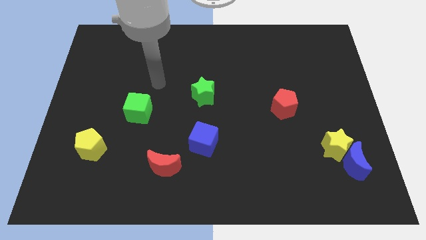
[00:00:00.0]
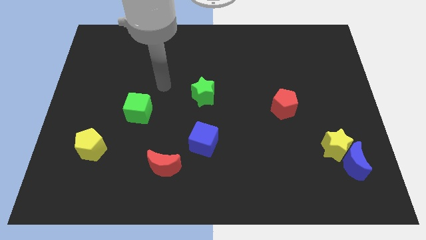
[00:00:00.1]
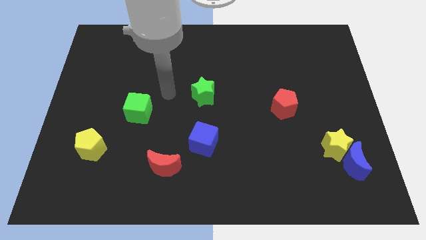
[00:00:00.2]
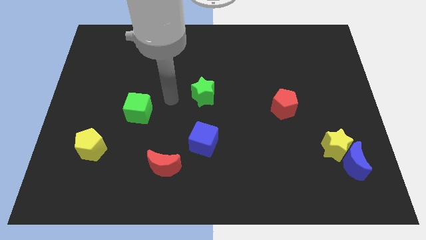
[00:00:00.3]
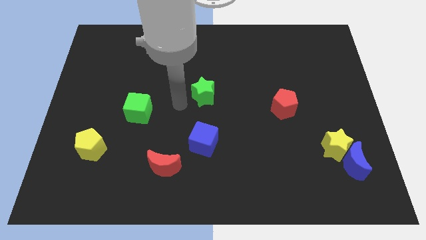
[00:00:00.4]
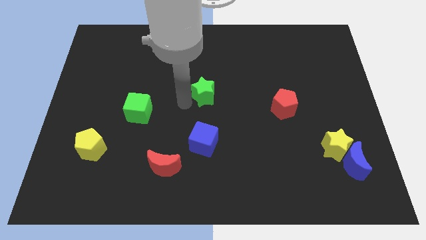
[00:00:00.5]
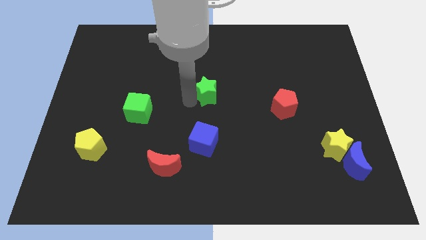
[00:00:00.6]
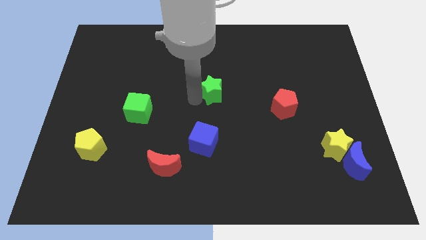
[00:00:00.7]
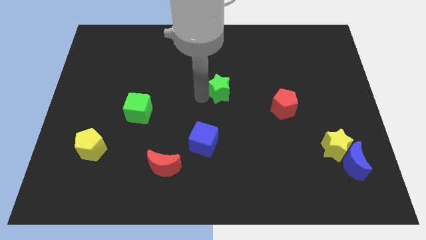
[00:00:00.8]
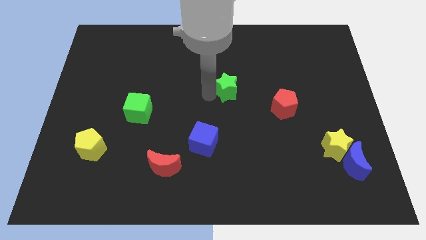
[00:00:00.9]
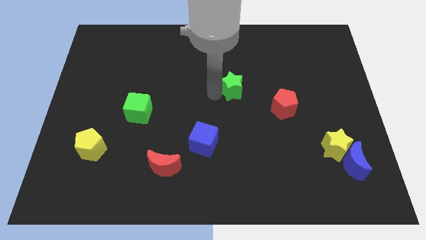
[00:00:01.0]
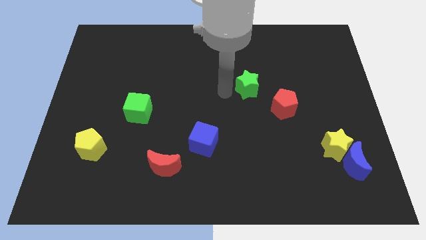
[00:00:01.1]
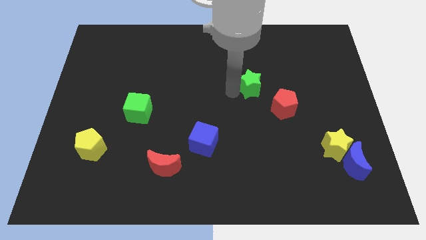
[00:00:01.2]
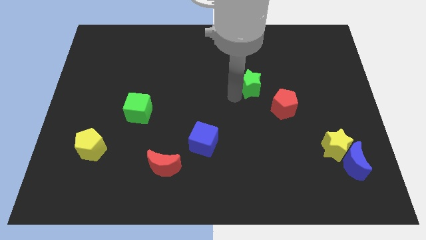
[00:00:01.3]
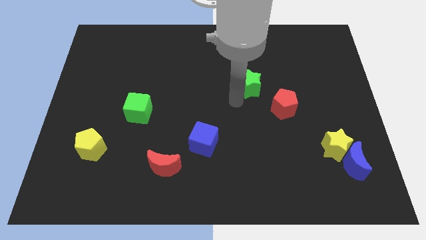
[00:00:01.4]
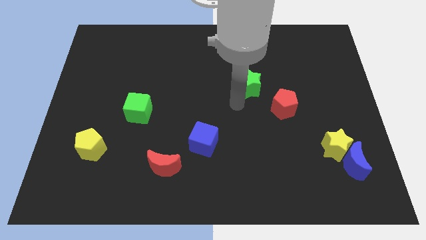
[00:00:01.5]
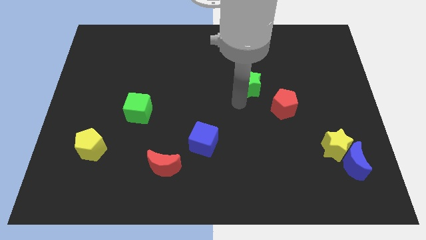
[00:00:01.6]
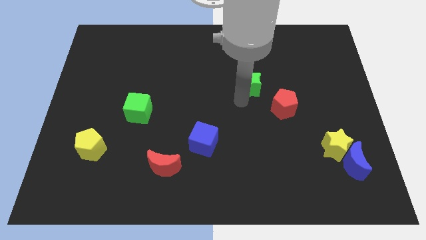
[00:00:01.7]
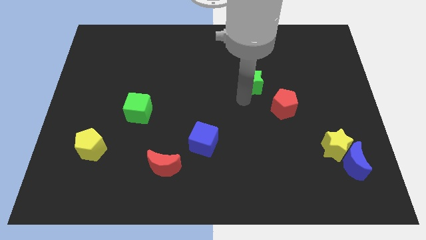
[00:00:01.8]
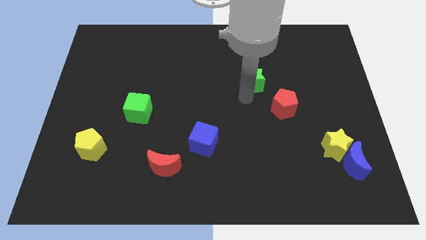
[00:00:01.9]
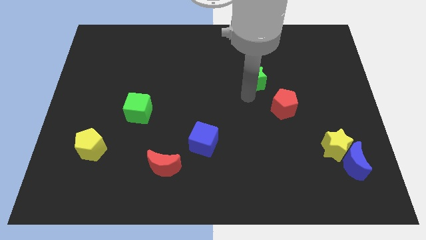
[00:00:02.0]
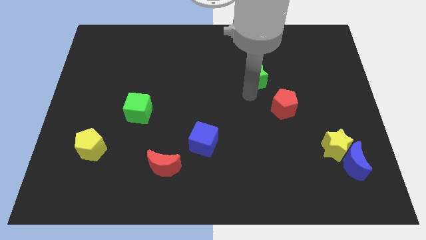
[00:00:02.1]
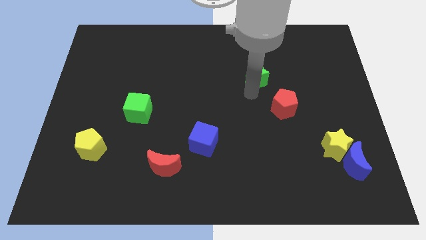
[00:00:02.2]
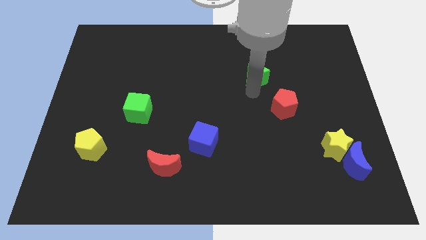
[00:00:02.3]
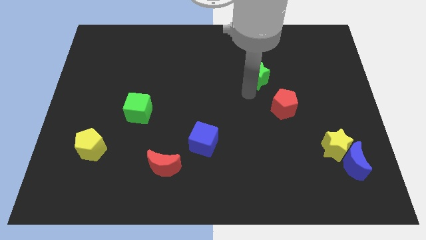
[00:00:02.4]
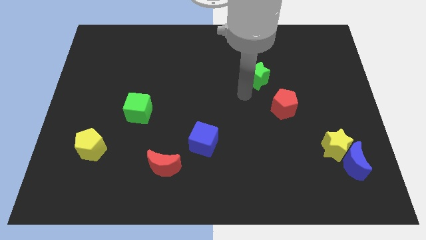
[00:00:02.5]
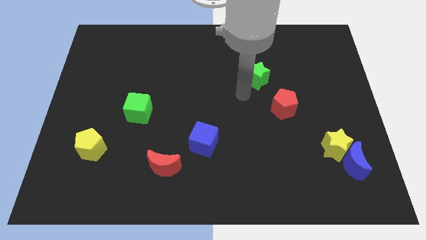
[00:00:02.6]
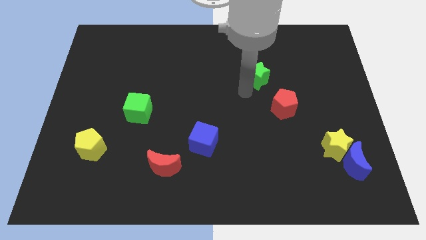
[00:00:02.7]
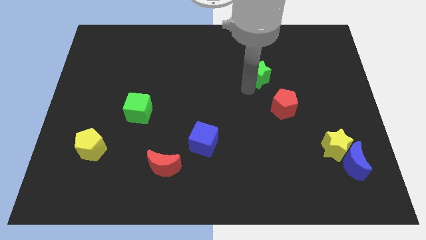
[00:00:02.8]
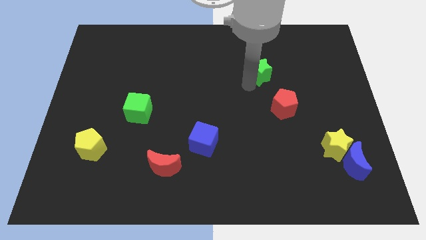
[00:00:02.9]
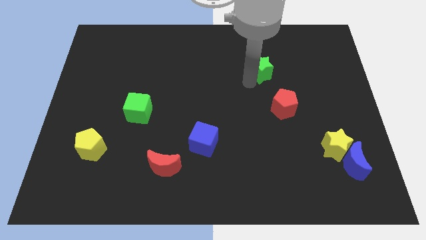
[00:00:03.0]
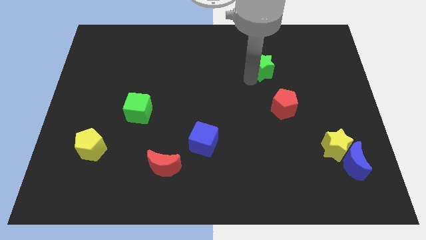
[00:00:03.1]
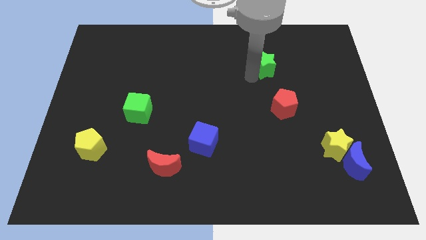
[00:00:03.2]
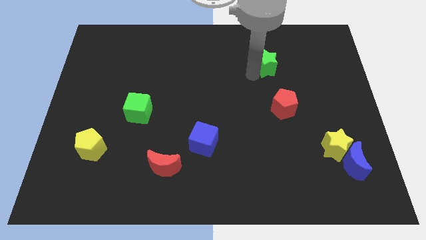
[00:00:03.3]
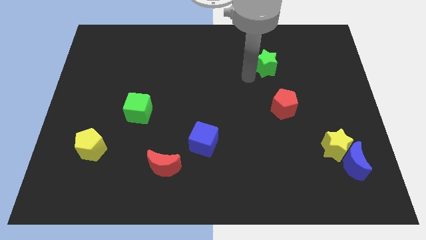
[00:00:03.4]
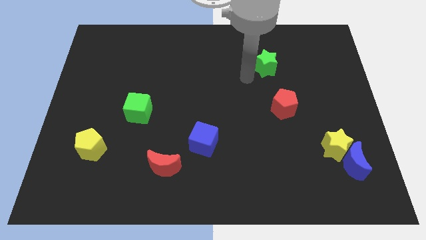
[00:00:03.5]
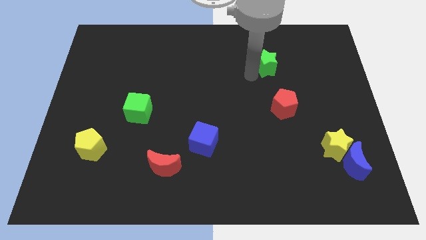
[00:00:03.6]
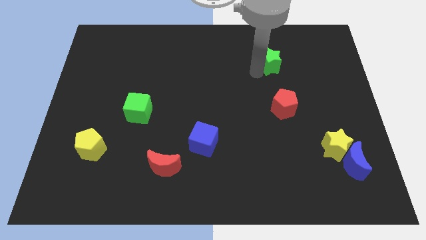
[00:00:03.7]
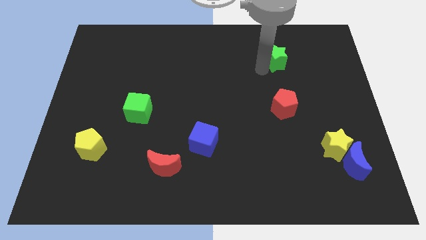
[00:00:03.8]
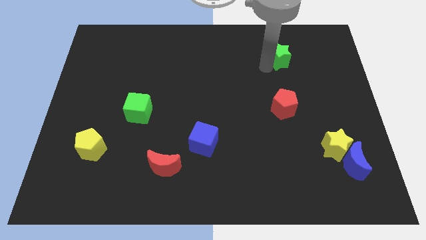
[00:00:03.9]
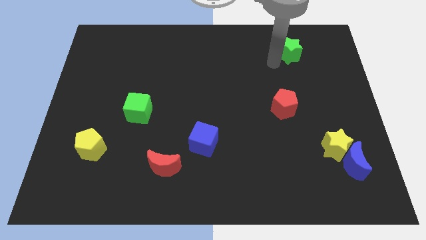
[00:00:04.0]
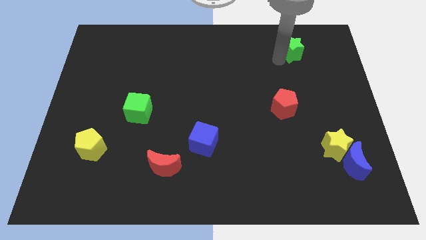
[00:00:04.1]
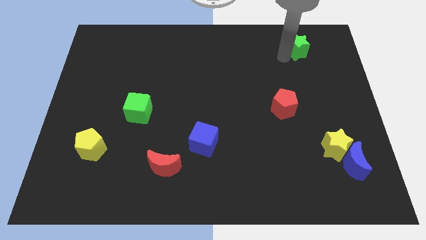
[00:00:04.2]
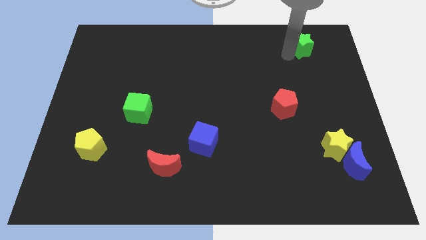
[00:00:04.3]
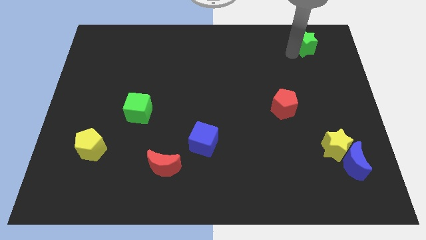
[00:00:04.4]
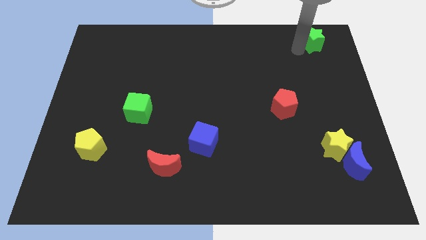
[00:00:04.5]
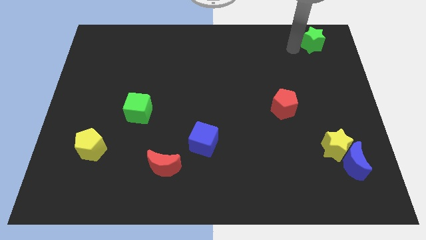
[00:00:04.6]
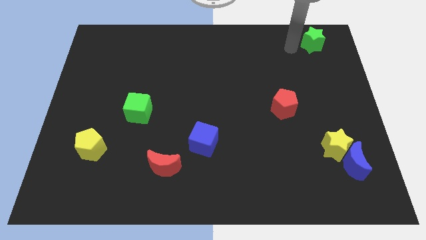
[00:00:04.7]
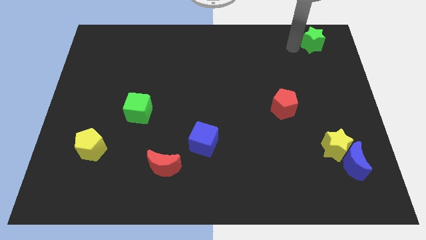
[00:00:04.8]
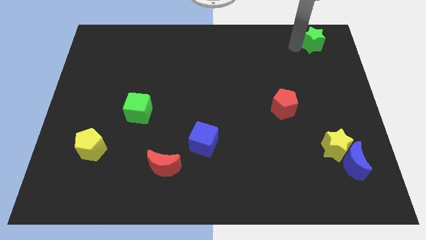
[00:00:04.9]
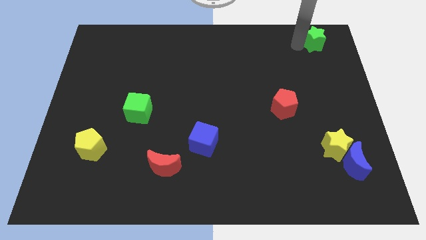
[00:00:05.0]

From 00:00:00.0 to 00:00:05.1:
push the green star to the top right

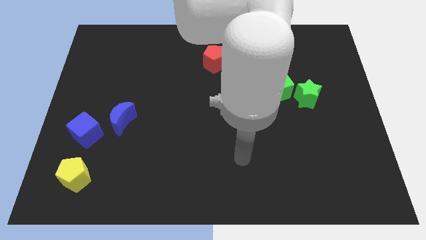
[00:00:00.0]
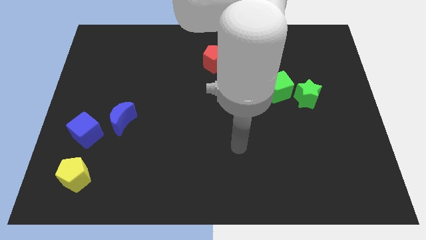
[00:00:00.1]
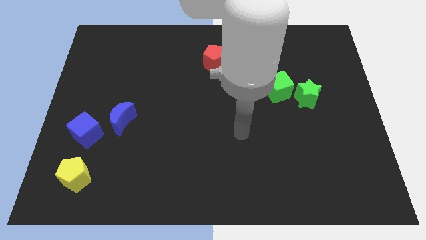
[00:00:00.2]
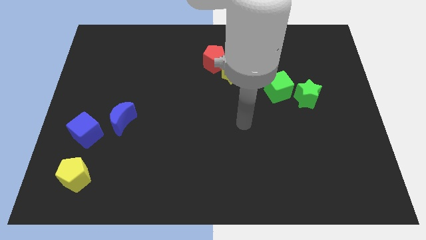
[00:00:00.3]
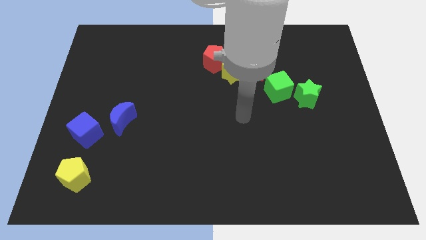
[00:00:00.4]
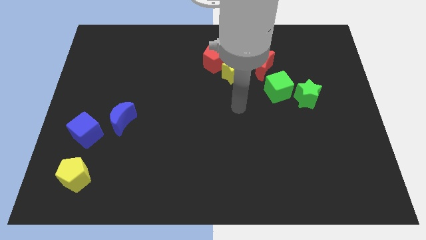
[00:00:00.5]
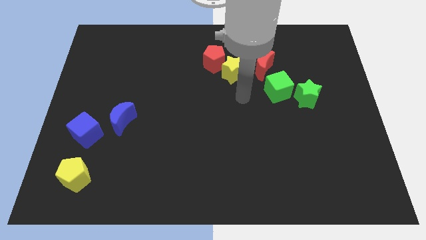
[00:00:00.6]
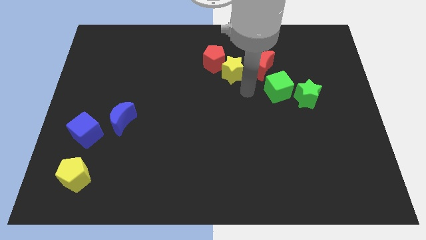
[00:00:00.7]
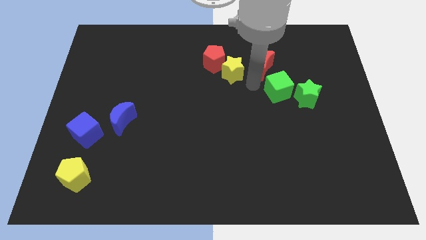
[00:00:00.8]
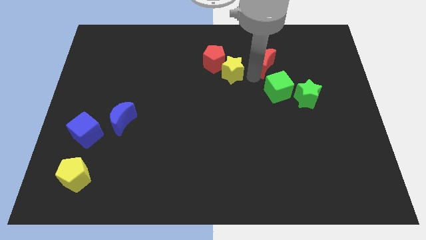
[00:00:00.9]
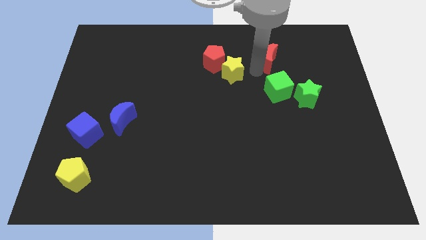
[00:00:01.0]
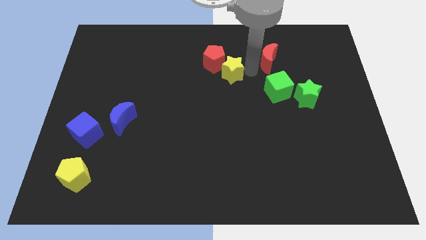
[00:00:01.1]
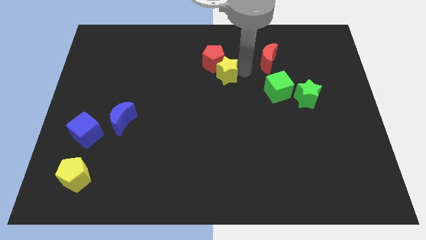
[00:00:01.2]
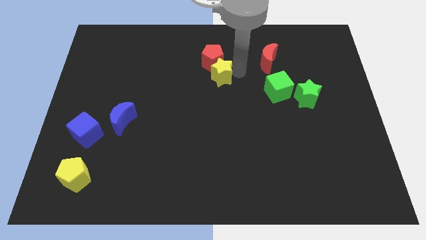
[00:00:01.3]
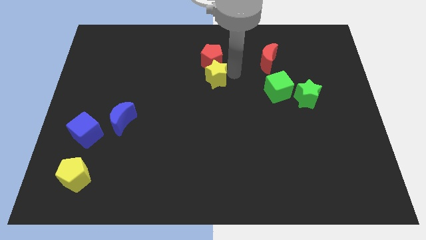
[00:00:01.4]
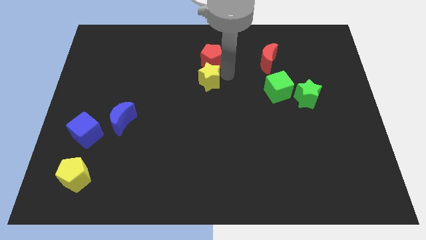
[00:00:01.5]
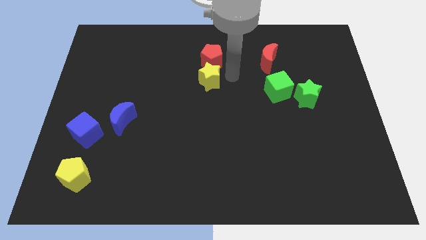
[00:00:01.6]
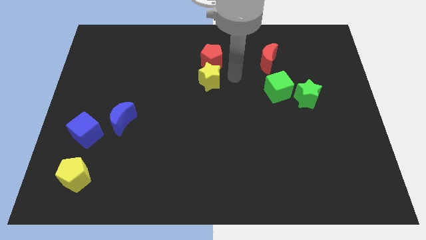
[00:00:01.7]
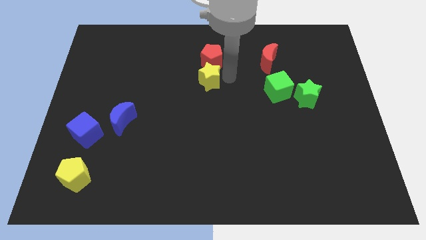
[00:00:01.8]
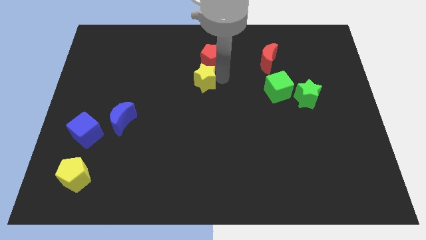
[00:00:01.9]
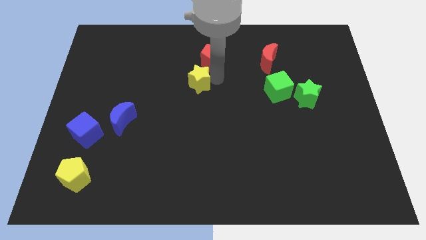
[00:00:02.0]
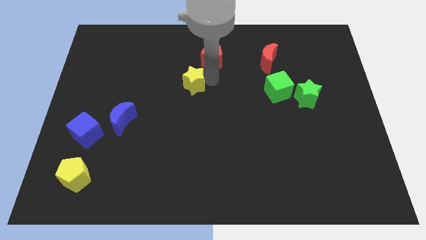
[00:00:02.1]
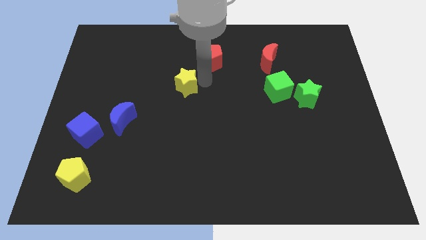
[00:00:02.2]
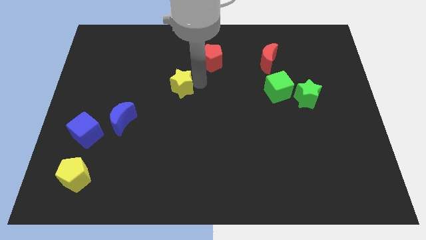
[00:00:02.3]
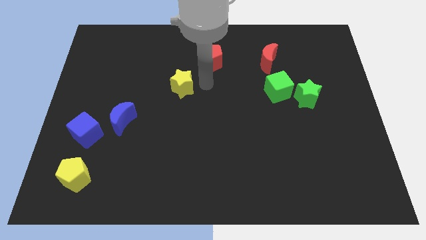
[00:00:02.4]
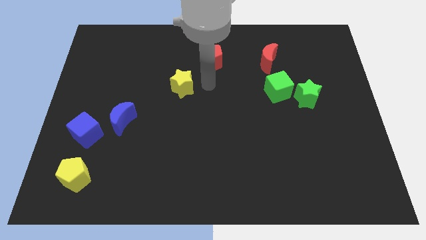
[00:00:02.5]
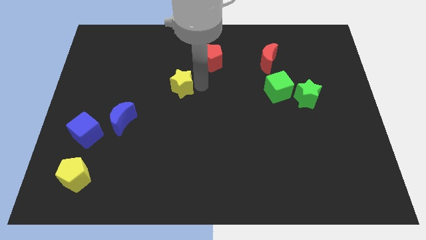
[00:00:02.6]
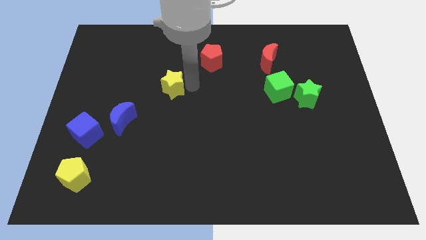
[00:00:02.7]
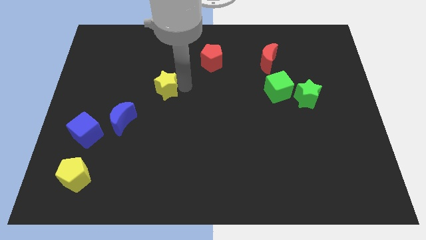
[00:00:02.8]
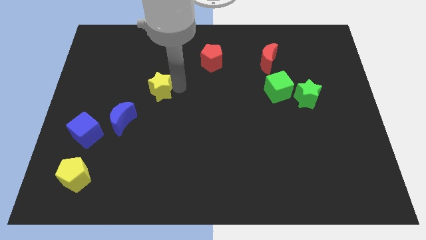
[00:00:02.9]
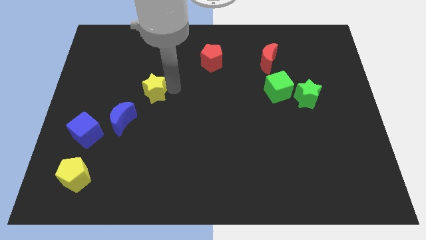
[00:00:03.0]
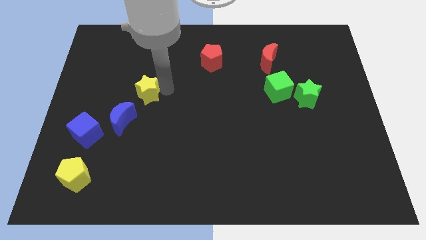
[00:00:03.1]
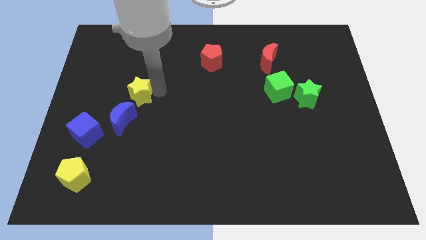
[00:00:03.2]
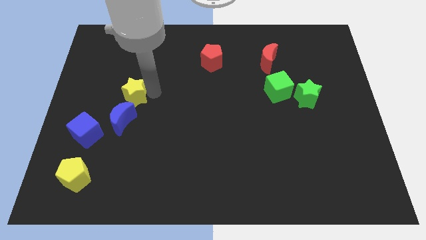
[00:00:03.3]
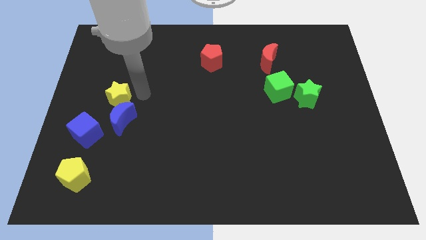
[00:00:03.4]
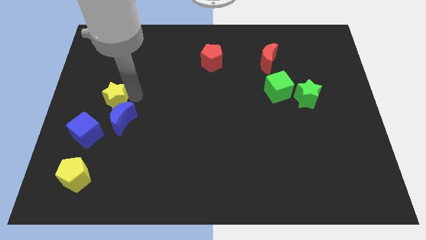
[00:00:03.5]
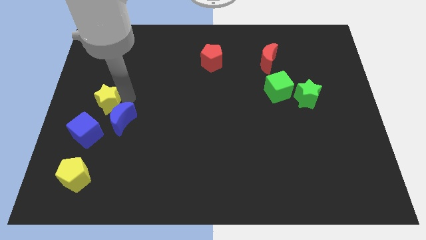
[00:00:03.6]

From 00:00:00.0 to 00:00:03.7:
push the yellow star to the center left
